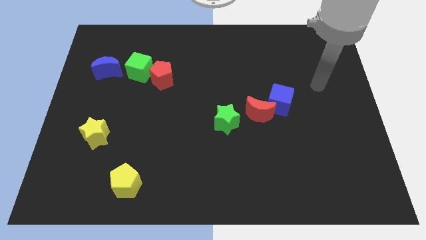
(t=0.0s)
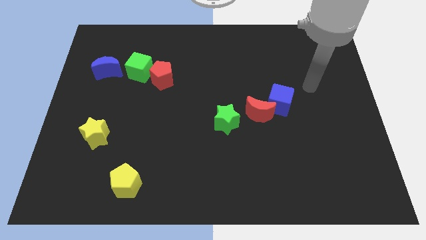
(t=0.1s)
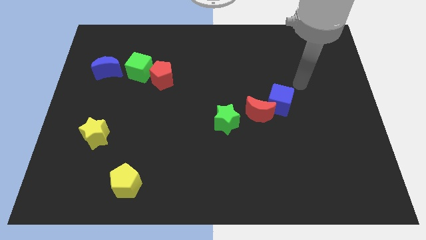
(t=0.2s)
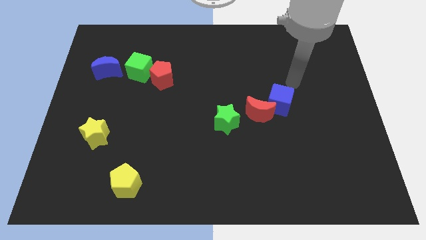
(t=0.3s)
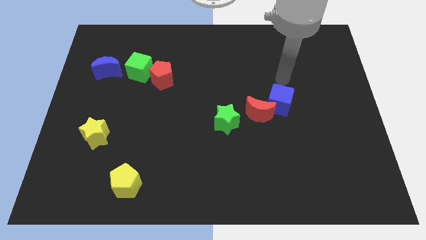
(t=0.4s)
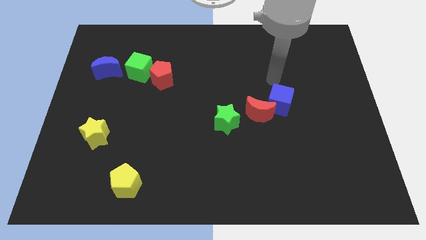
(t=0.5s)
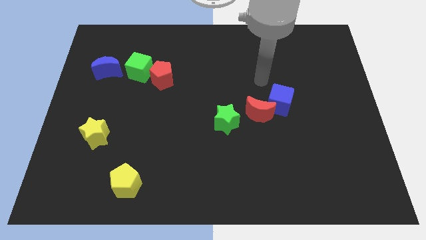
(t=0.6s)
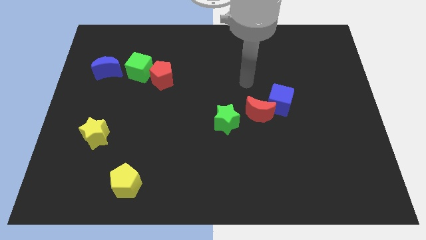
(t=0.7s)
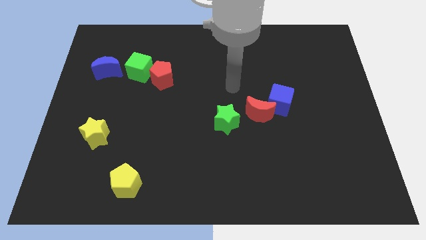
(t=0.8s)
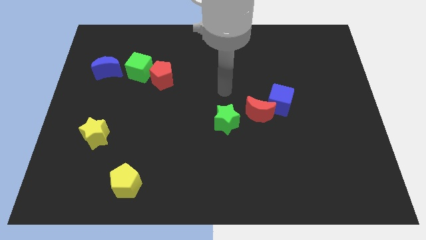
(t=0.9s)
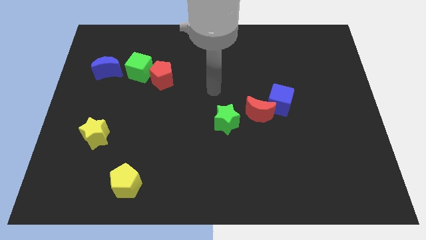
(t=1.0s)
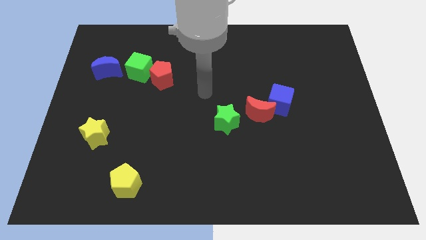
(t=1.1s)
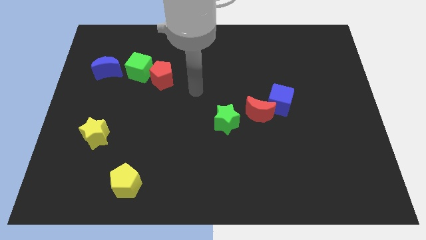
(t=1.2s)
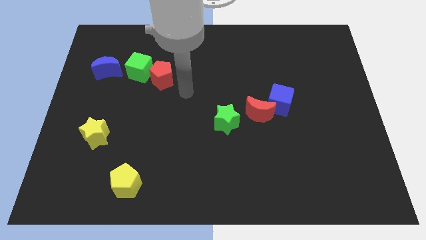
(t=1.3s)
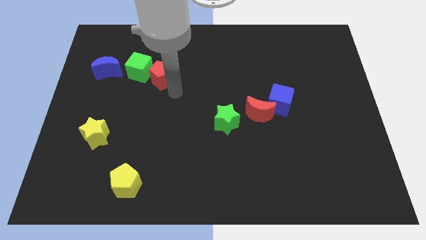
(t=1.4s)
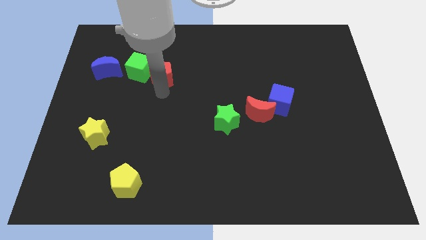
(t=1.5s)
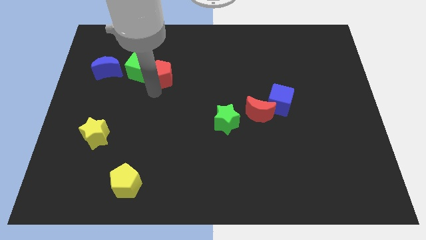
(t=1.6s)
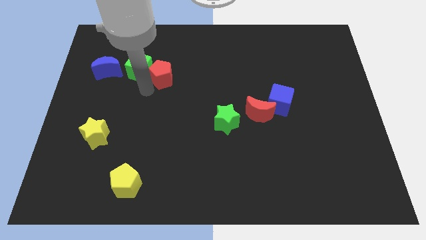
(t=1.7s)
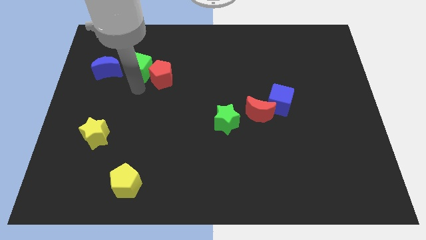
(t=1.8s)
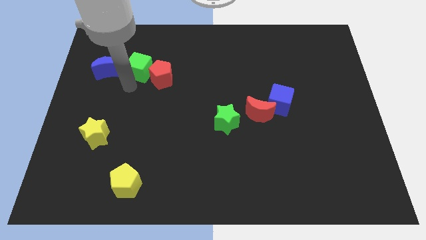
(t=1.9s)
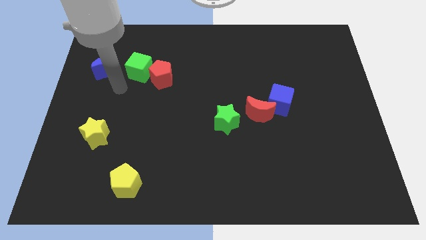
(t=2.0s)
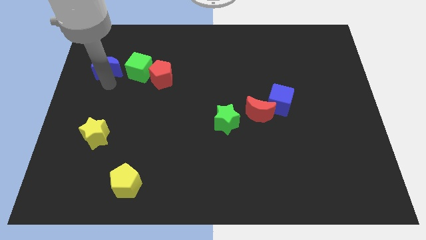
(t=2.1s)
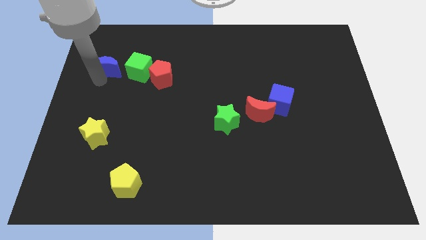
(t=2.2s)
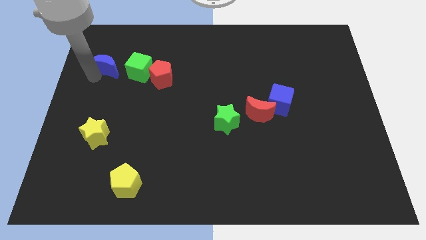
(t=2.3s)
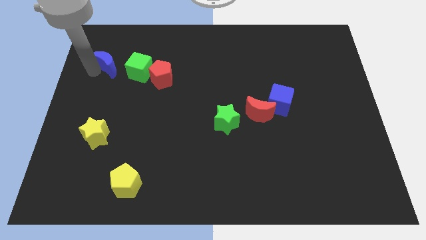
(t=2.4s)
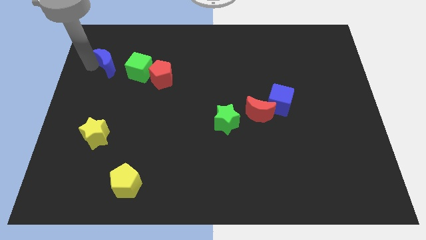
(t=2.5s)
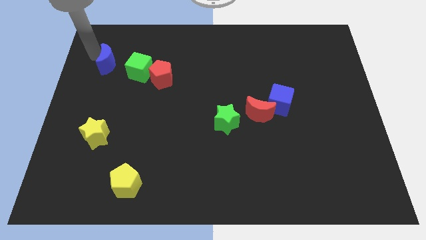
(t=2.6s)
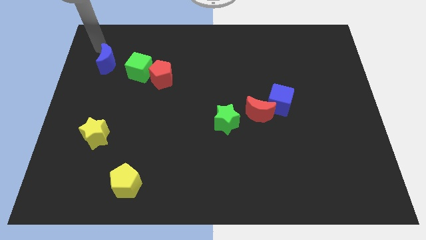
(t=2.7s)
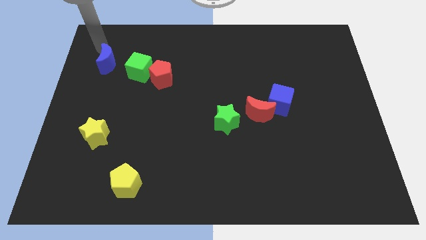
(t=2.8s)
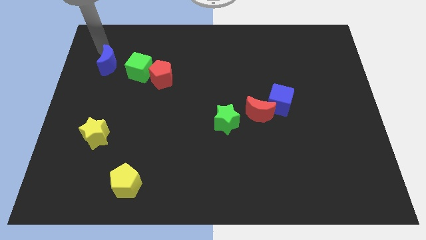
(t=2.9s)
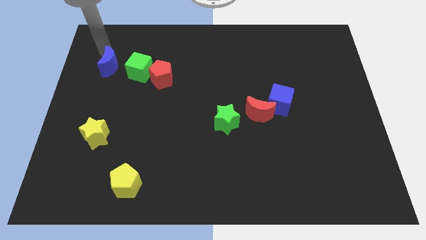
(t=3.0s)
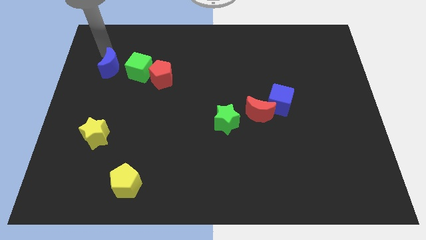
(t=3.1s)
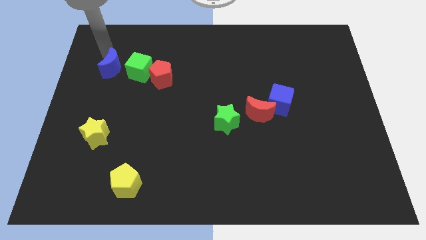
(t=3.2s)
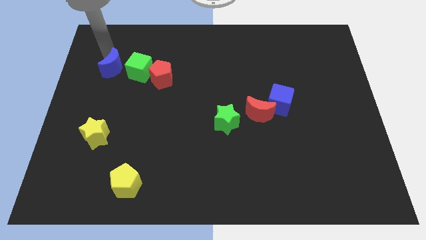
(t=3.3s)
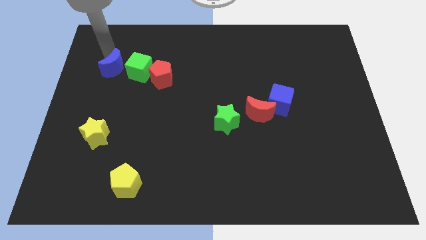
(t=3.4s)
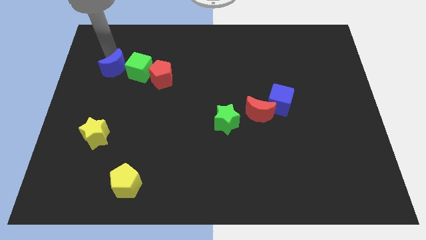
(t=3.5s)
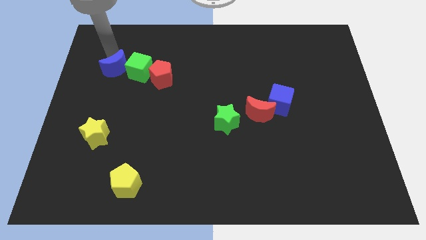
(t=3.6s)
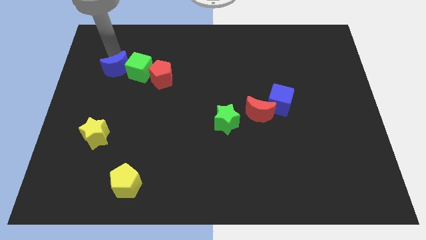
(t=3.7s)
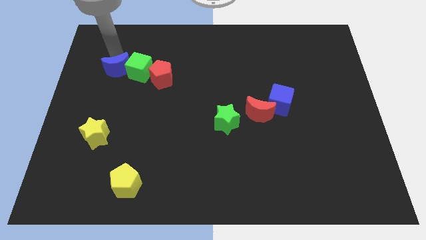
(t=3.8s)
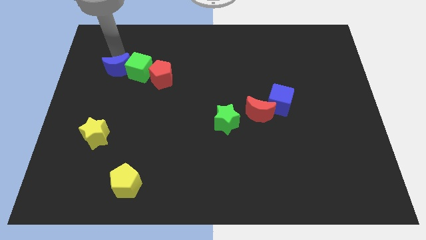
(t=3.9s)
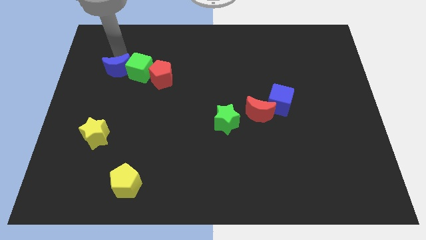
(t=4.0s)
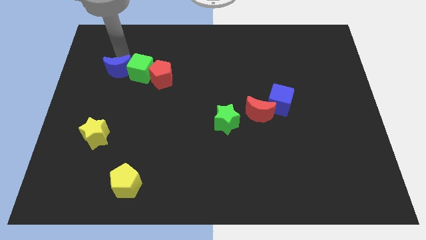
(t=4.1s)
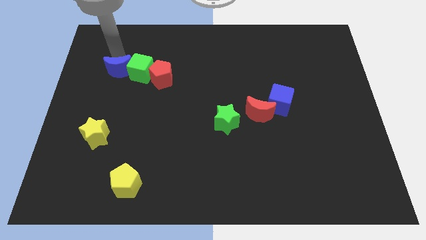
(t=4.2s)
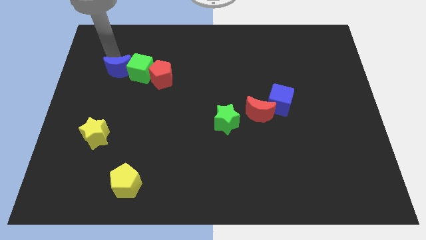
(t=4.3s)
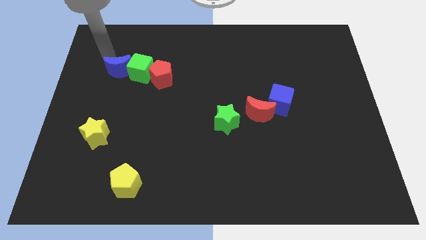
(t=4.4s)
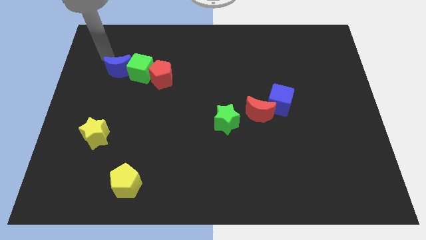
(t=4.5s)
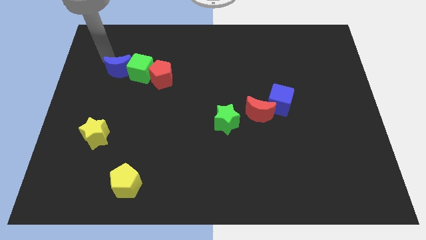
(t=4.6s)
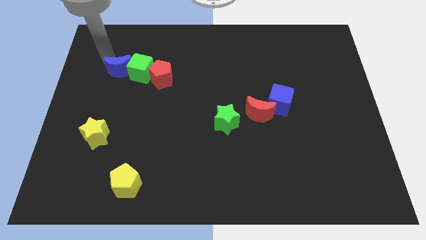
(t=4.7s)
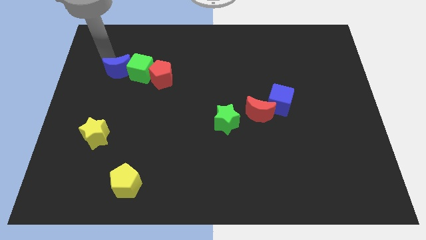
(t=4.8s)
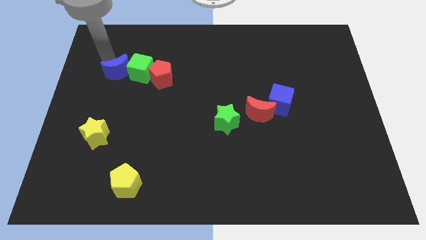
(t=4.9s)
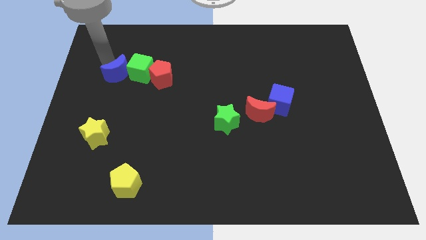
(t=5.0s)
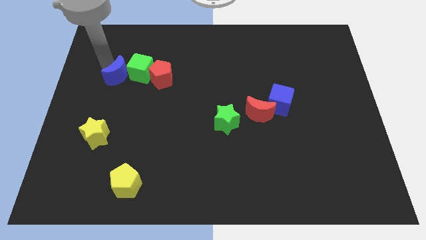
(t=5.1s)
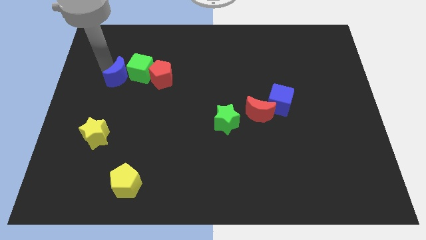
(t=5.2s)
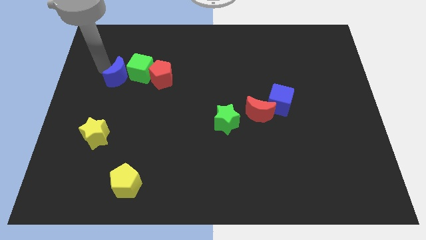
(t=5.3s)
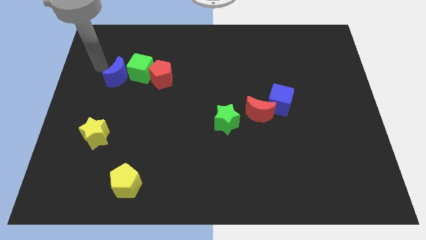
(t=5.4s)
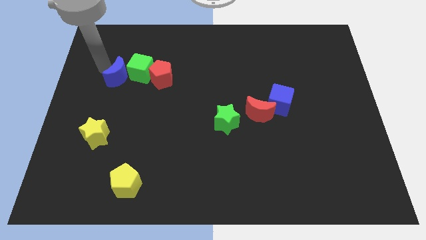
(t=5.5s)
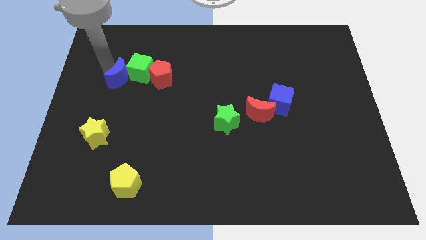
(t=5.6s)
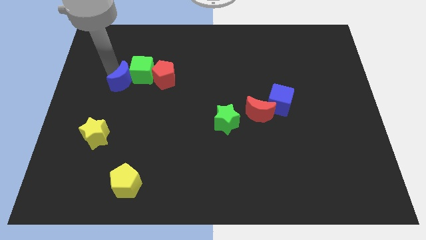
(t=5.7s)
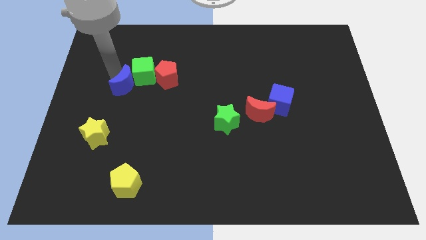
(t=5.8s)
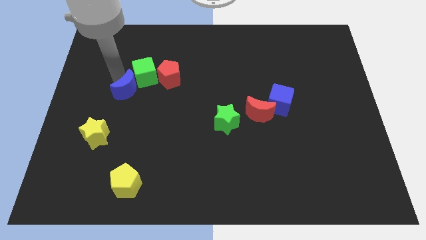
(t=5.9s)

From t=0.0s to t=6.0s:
put the blue moon diagonally down and to the left of the red pentagon

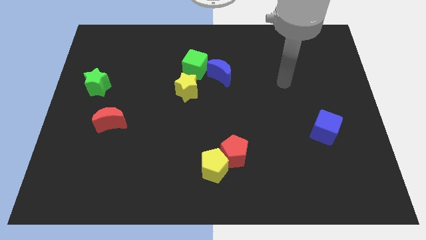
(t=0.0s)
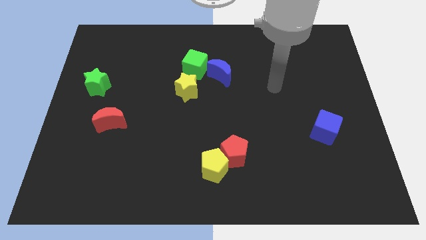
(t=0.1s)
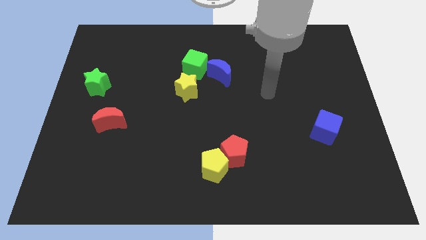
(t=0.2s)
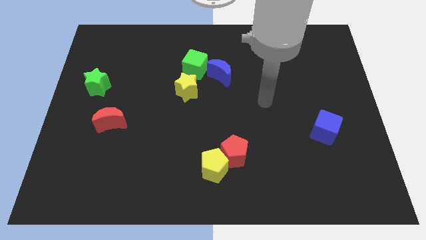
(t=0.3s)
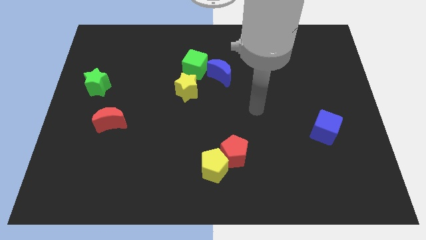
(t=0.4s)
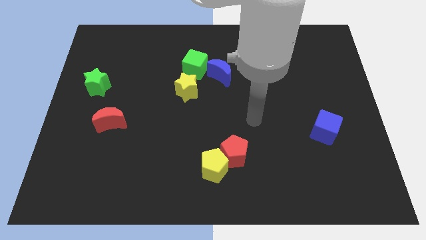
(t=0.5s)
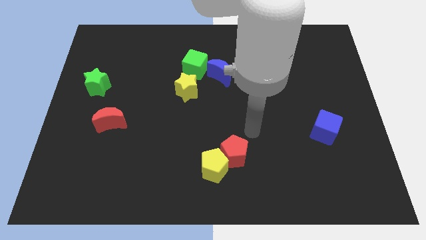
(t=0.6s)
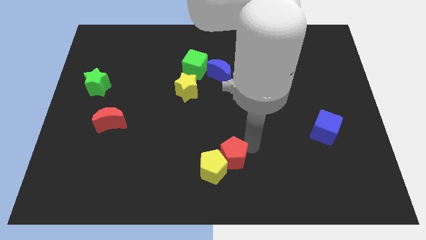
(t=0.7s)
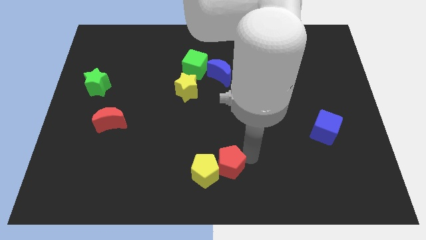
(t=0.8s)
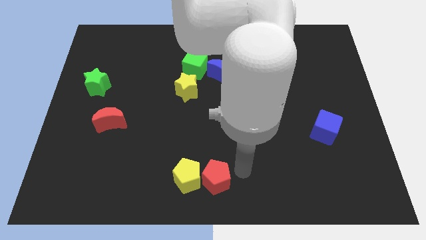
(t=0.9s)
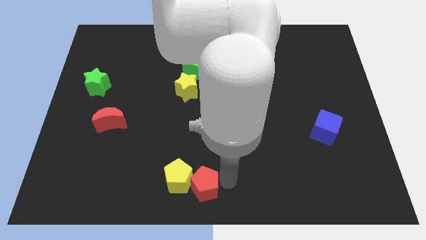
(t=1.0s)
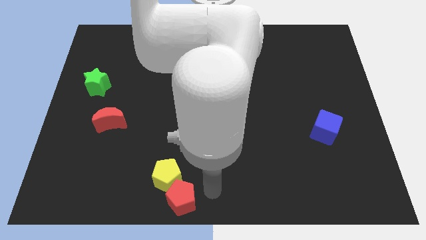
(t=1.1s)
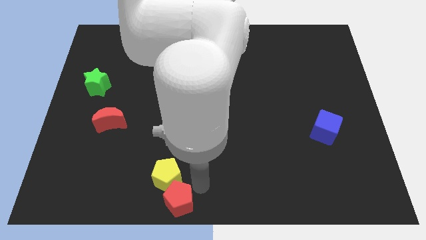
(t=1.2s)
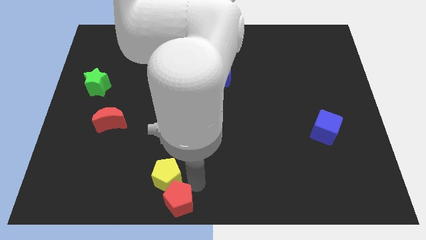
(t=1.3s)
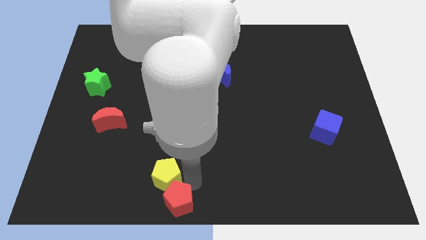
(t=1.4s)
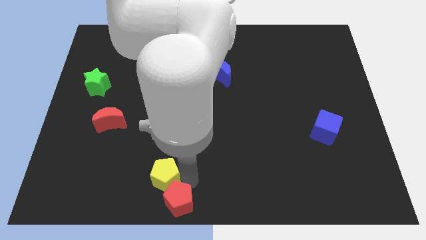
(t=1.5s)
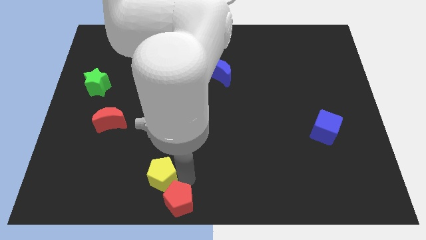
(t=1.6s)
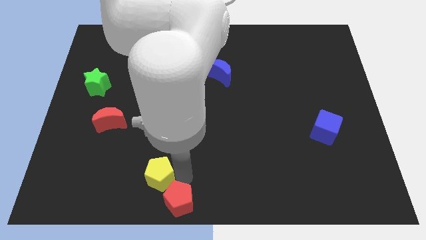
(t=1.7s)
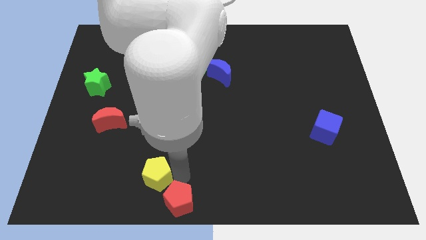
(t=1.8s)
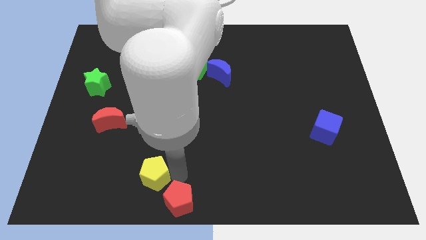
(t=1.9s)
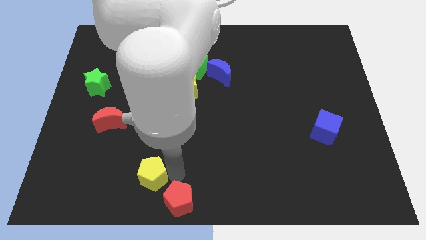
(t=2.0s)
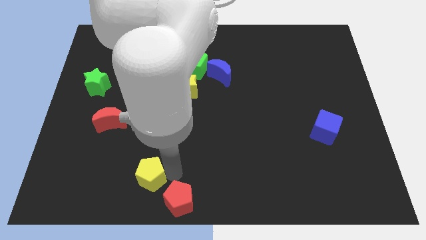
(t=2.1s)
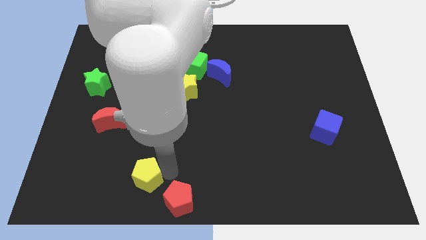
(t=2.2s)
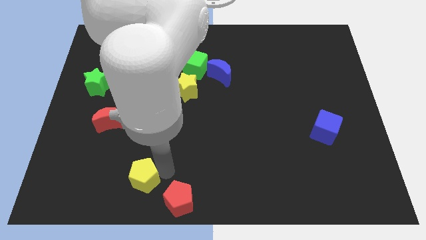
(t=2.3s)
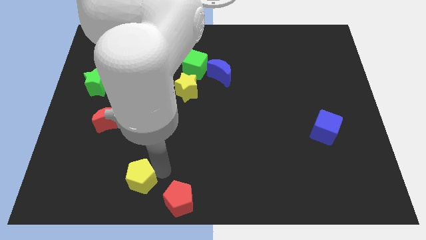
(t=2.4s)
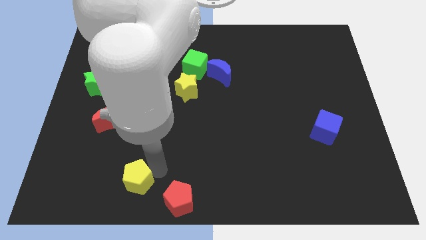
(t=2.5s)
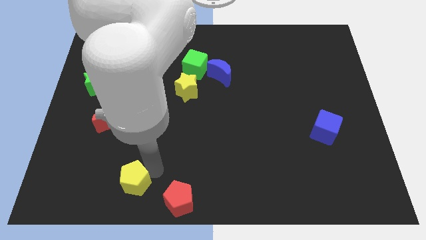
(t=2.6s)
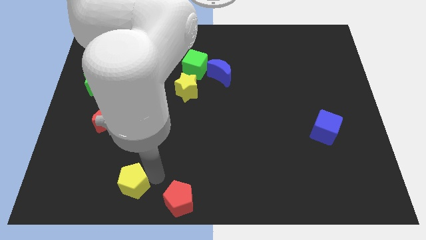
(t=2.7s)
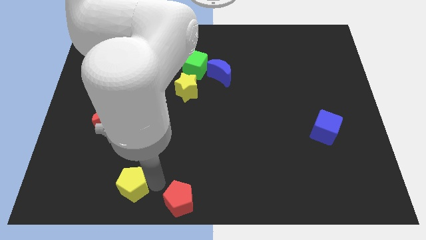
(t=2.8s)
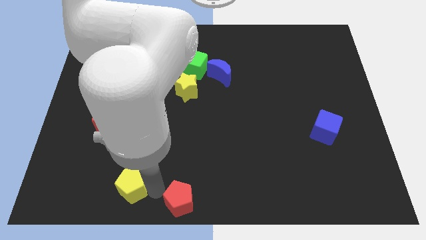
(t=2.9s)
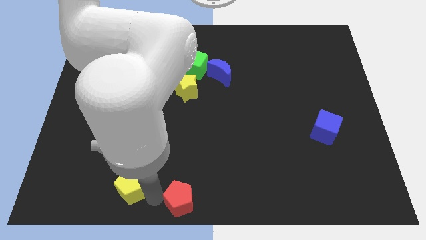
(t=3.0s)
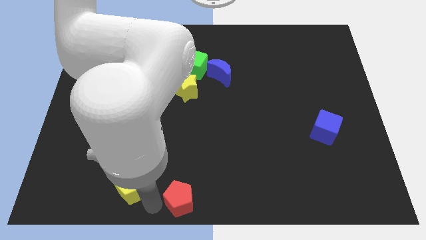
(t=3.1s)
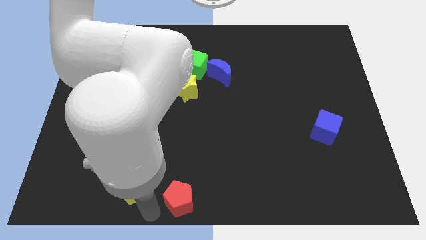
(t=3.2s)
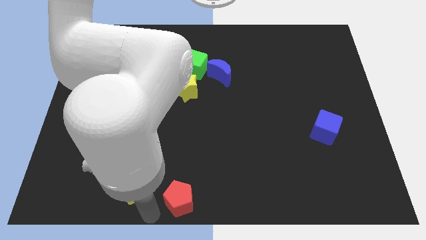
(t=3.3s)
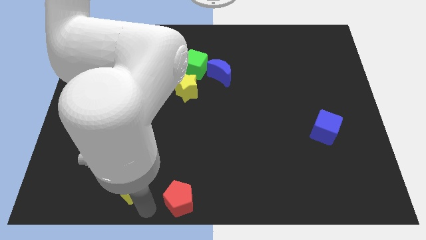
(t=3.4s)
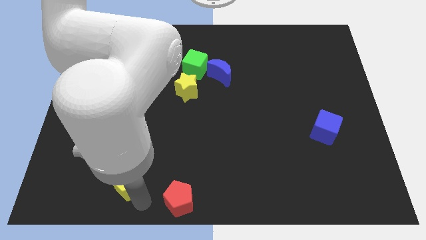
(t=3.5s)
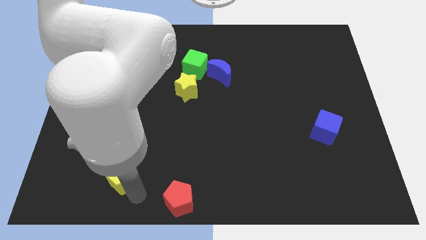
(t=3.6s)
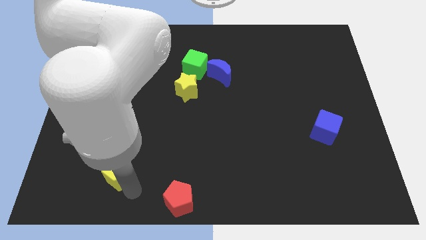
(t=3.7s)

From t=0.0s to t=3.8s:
move the yellow pentagon below the red moon
